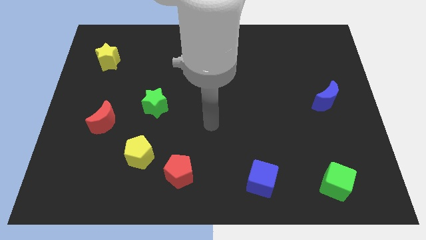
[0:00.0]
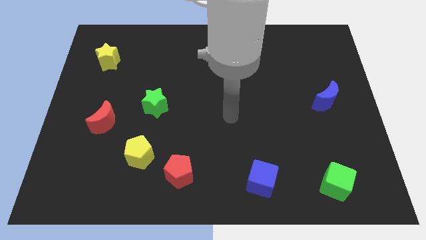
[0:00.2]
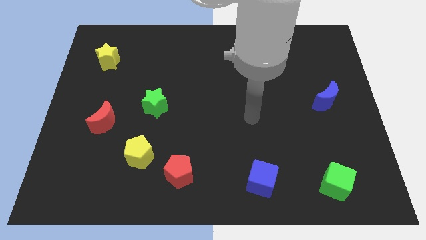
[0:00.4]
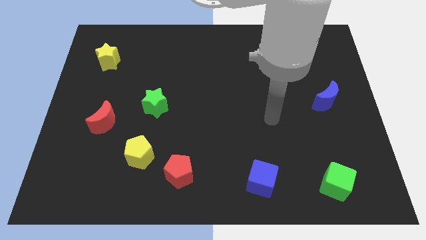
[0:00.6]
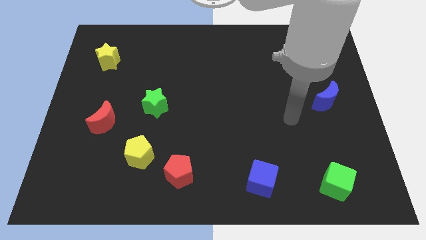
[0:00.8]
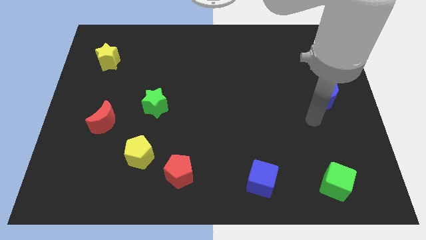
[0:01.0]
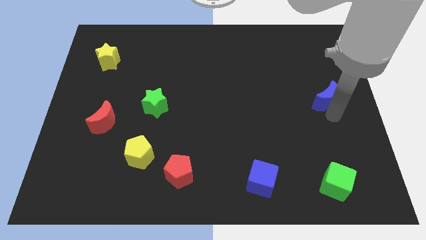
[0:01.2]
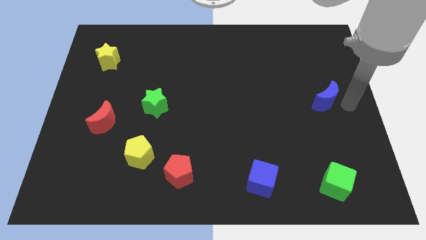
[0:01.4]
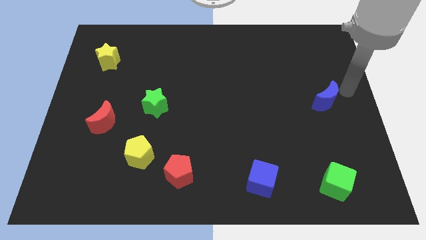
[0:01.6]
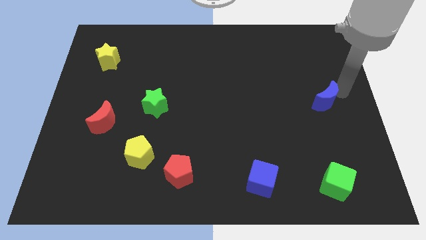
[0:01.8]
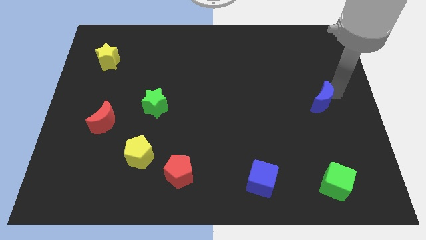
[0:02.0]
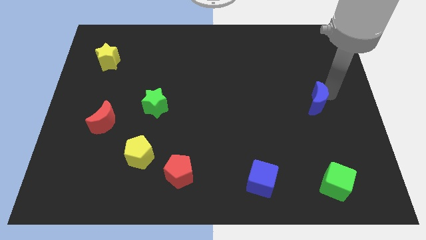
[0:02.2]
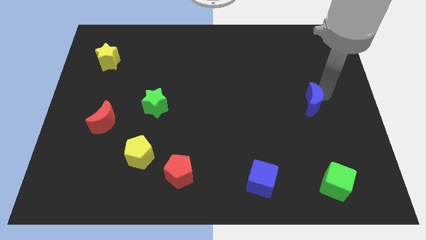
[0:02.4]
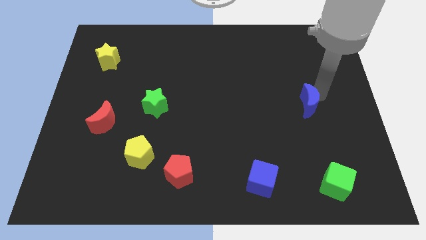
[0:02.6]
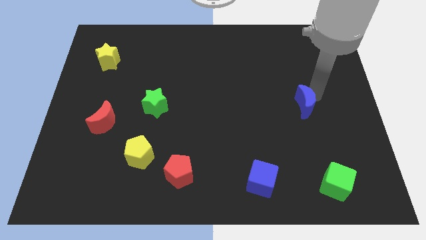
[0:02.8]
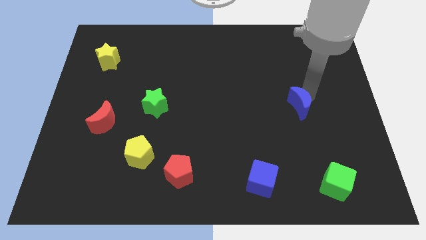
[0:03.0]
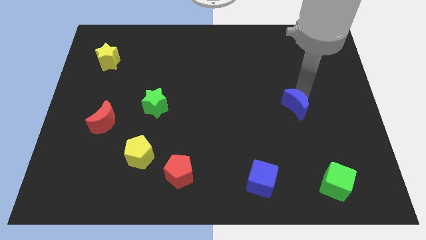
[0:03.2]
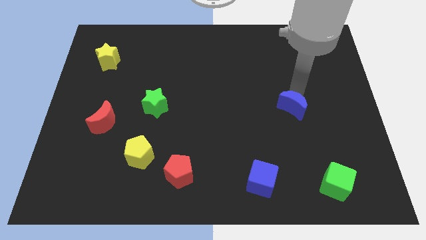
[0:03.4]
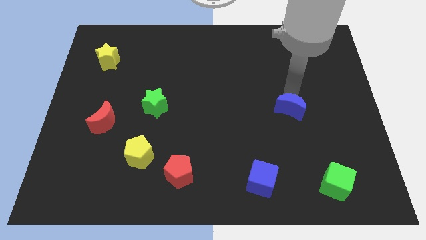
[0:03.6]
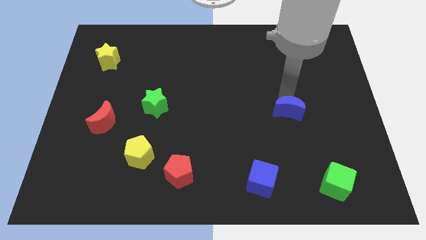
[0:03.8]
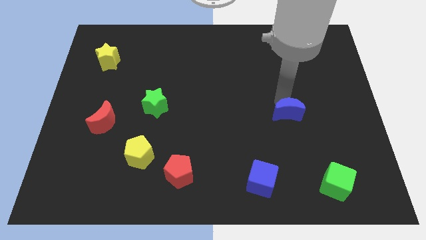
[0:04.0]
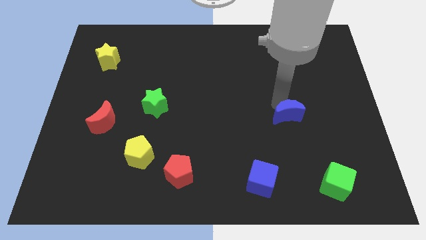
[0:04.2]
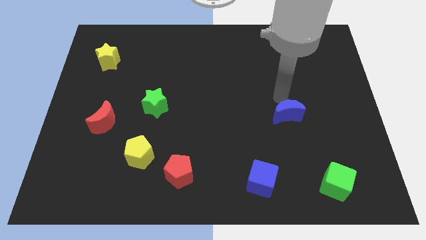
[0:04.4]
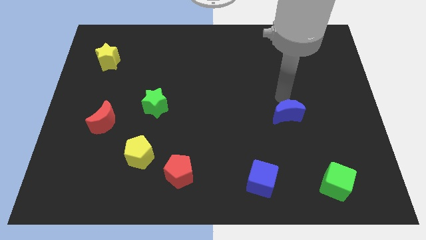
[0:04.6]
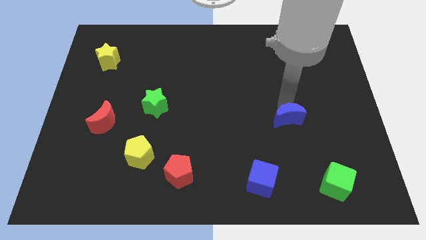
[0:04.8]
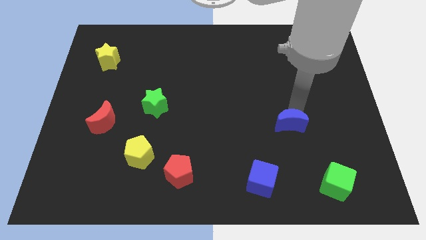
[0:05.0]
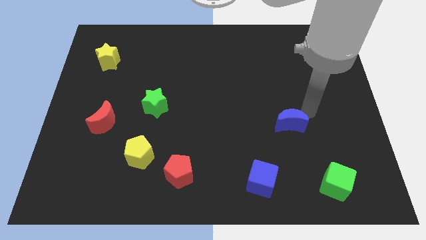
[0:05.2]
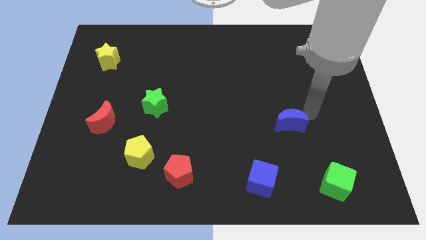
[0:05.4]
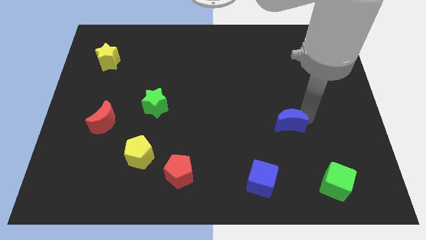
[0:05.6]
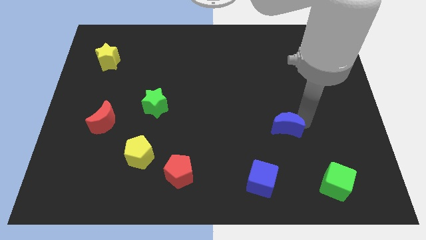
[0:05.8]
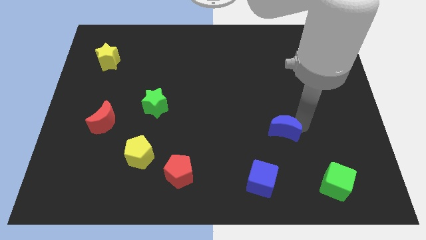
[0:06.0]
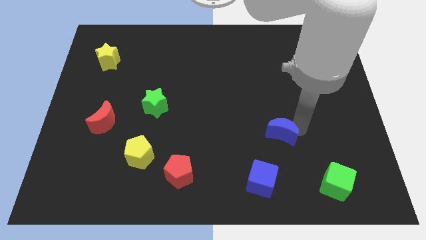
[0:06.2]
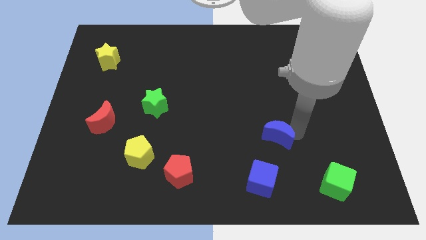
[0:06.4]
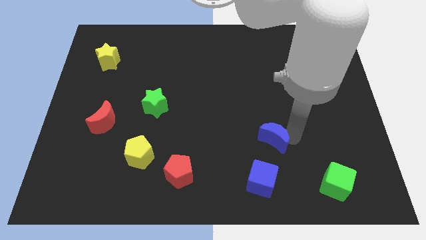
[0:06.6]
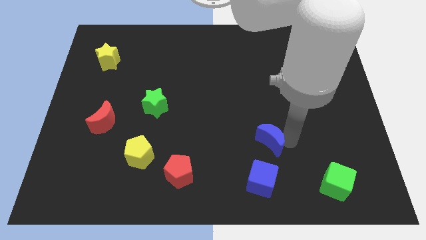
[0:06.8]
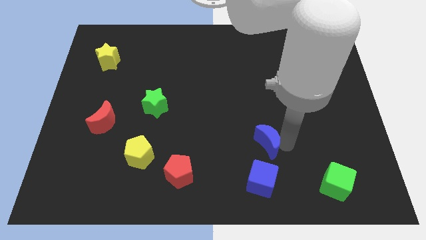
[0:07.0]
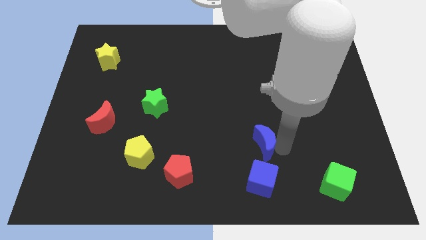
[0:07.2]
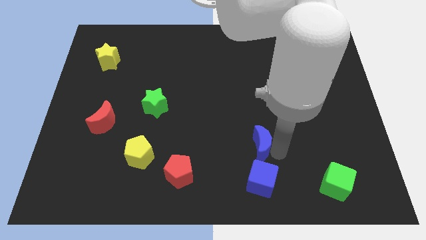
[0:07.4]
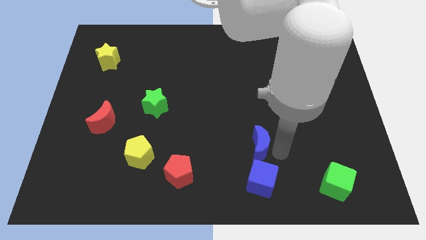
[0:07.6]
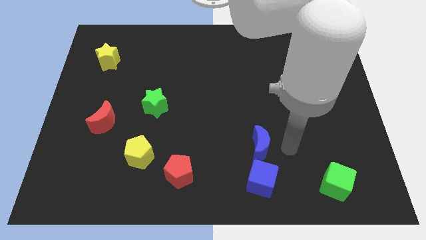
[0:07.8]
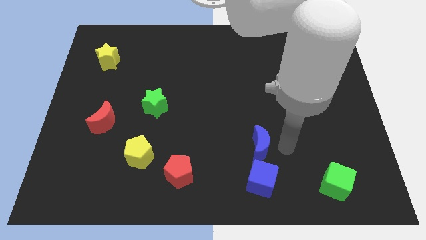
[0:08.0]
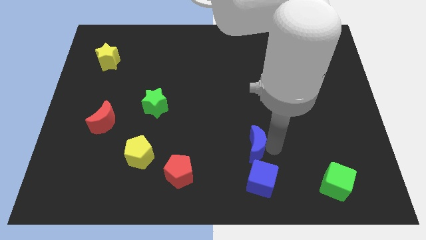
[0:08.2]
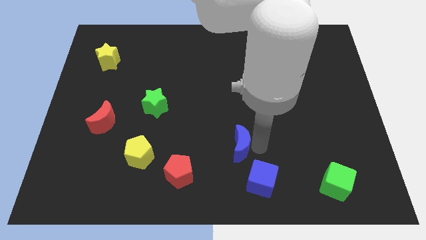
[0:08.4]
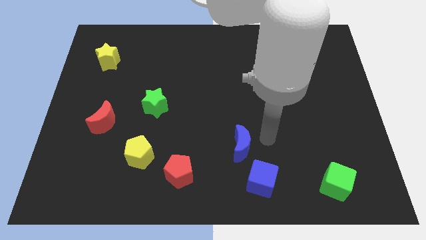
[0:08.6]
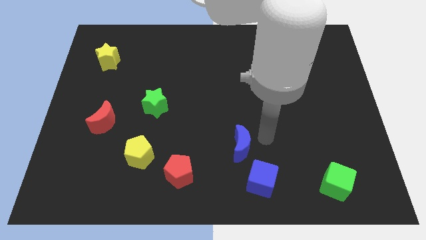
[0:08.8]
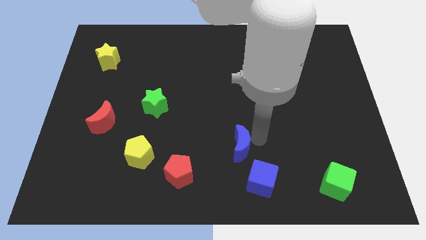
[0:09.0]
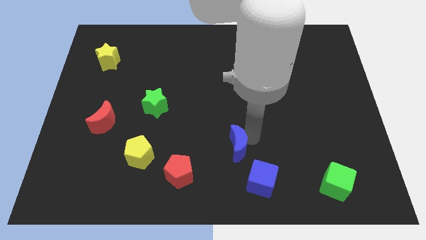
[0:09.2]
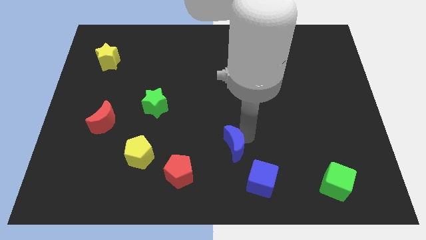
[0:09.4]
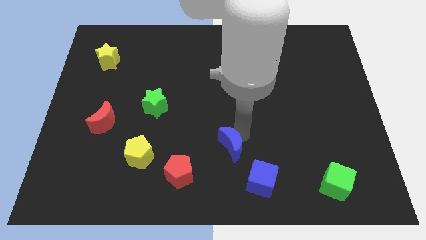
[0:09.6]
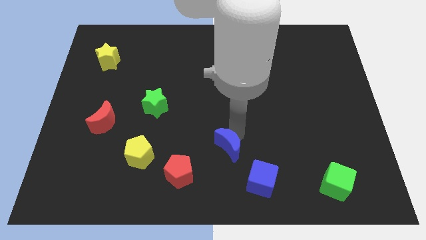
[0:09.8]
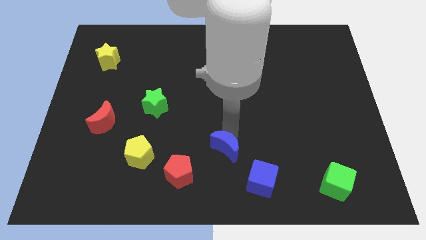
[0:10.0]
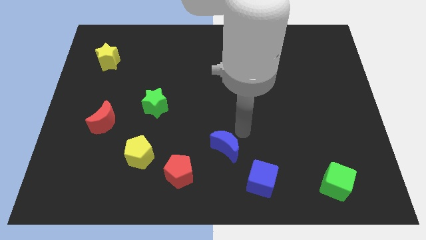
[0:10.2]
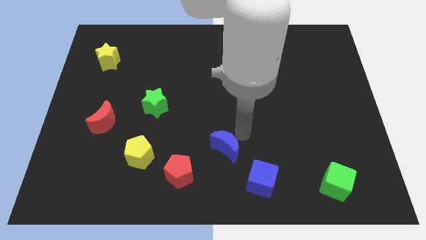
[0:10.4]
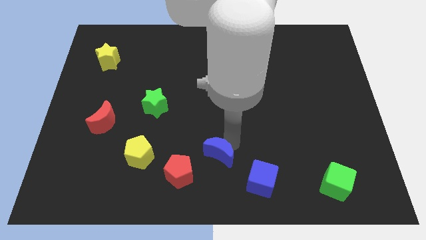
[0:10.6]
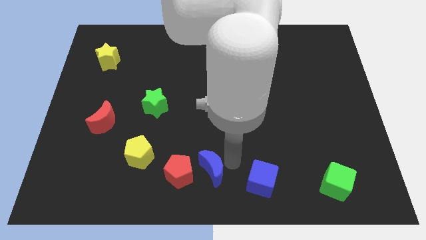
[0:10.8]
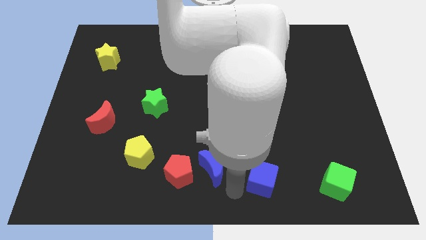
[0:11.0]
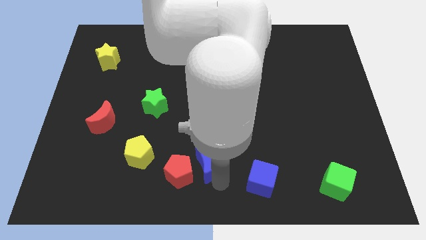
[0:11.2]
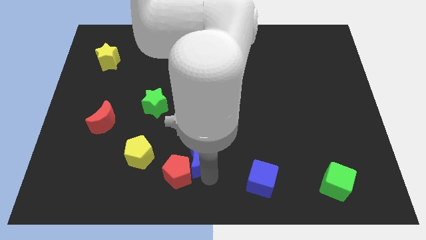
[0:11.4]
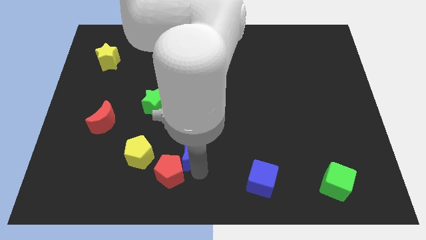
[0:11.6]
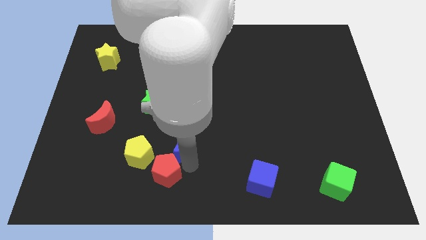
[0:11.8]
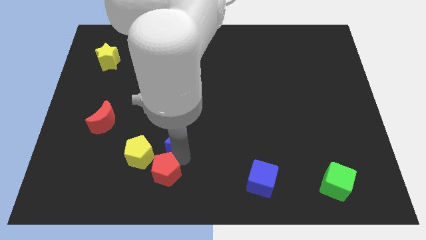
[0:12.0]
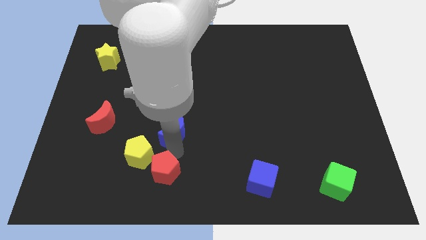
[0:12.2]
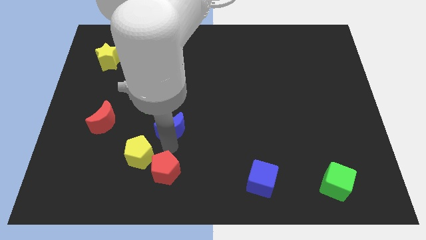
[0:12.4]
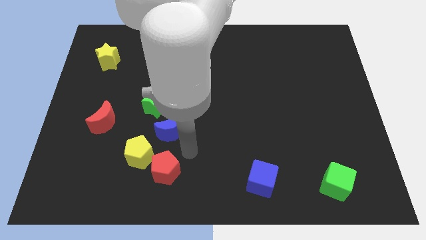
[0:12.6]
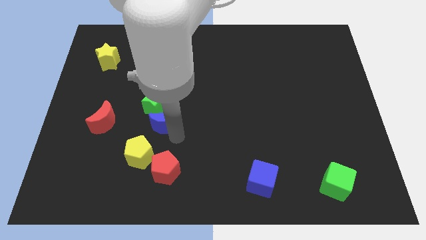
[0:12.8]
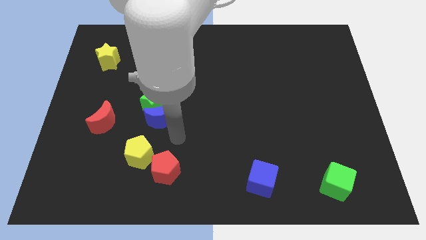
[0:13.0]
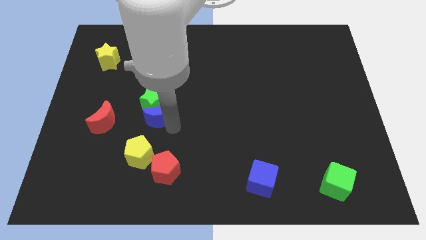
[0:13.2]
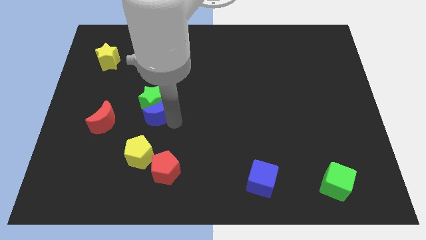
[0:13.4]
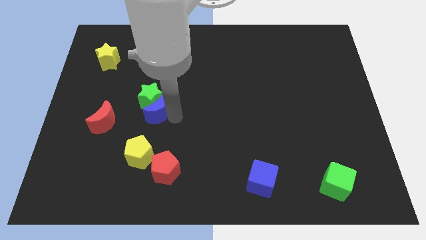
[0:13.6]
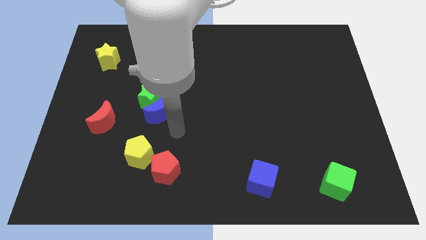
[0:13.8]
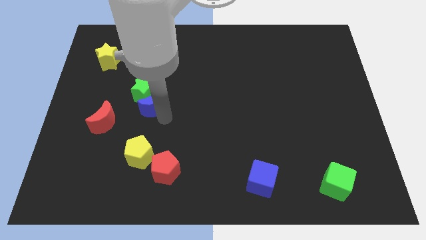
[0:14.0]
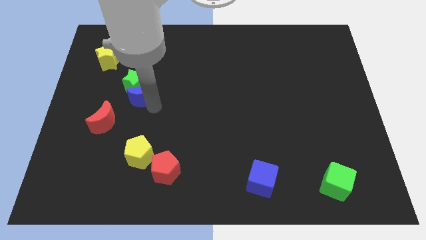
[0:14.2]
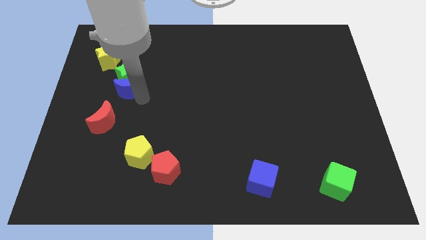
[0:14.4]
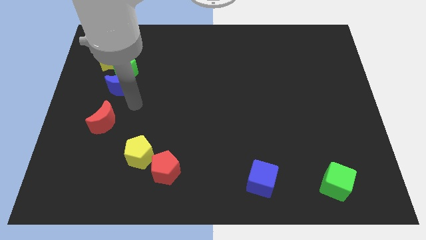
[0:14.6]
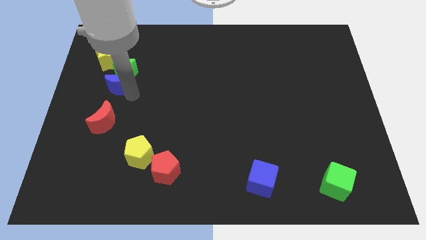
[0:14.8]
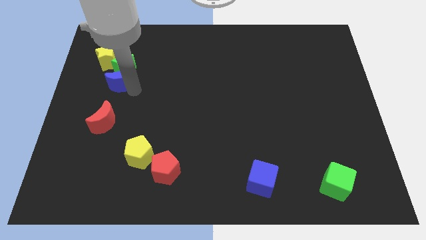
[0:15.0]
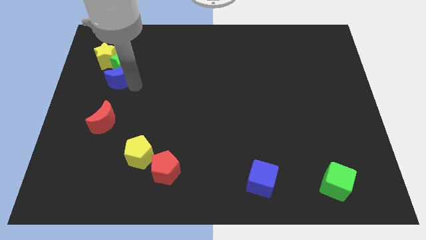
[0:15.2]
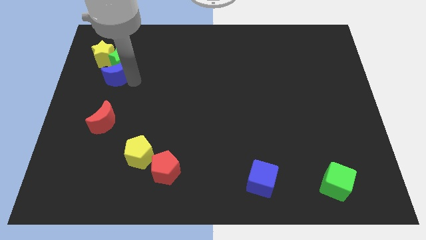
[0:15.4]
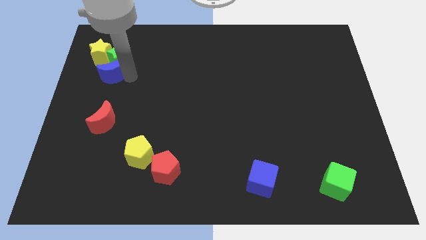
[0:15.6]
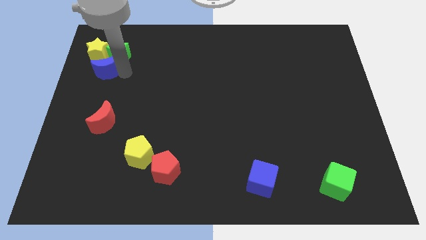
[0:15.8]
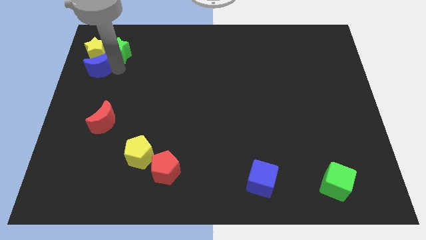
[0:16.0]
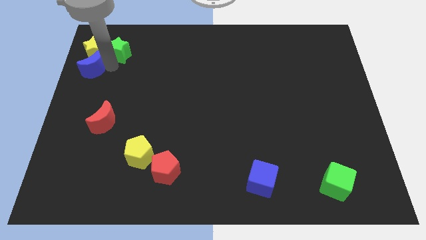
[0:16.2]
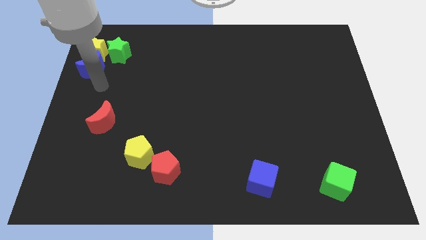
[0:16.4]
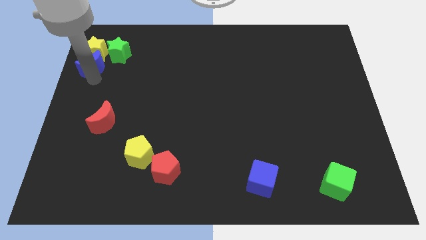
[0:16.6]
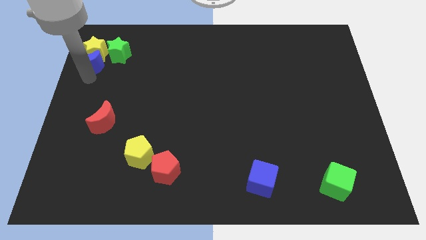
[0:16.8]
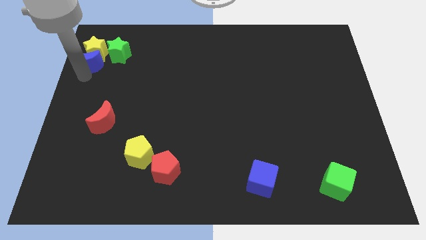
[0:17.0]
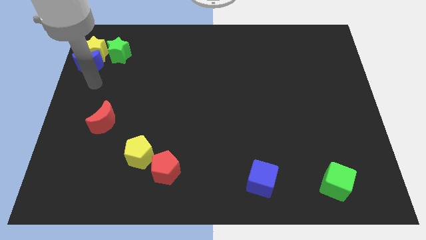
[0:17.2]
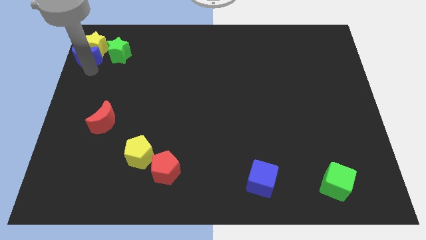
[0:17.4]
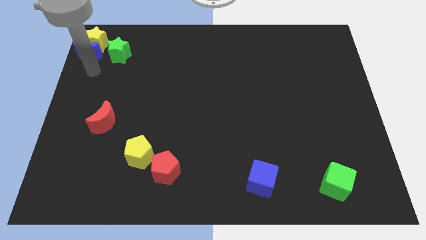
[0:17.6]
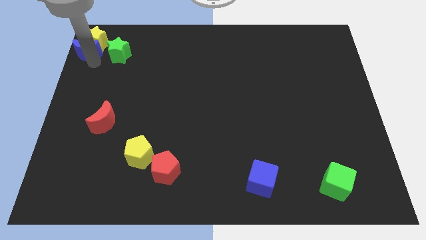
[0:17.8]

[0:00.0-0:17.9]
slide the blue moon to the top left corner
